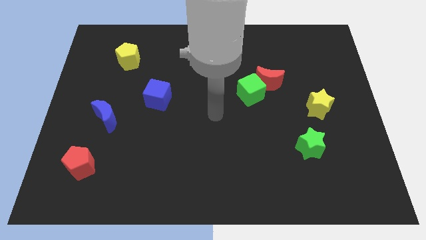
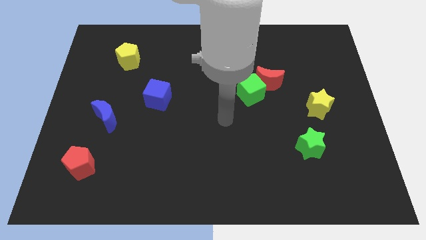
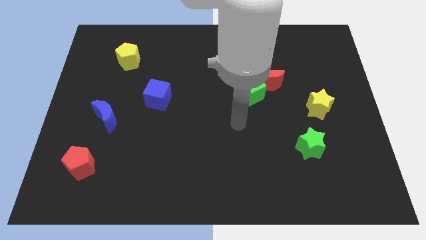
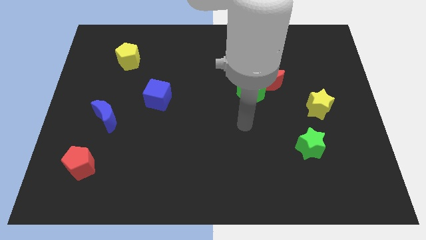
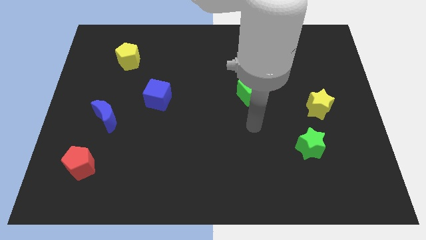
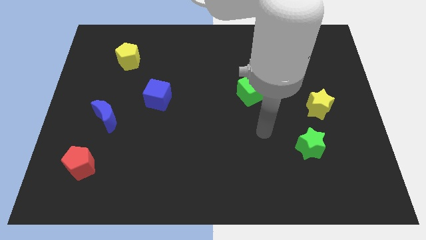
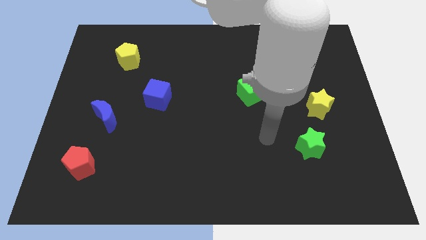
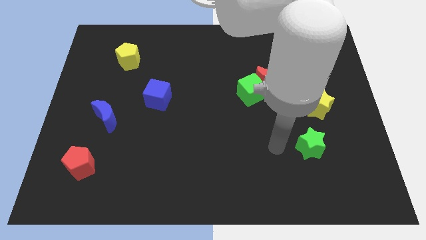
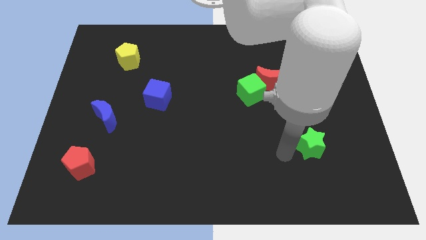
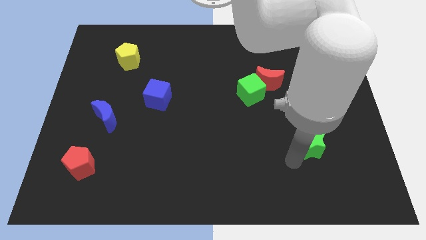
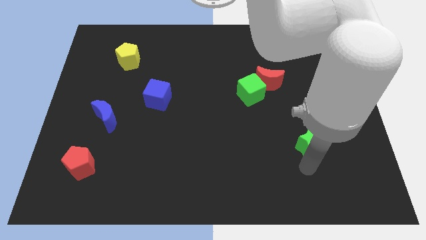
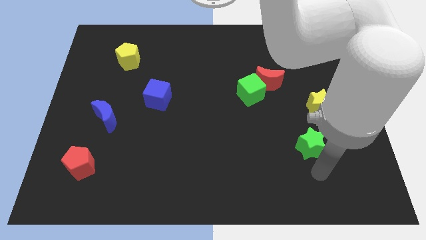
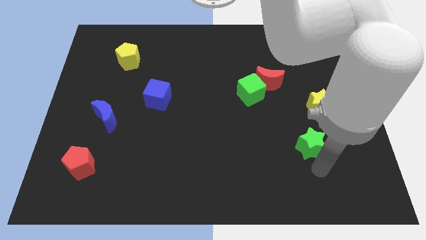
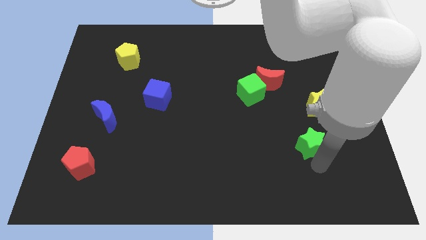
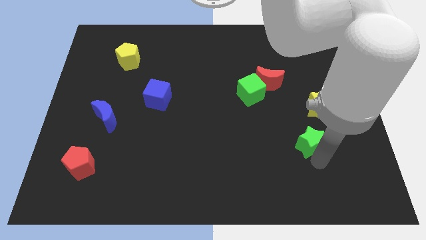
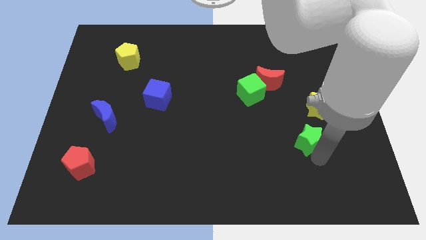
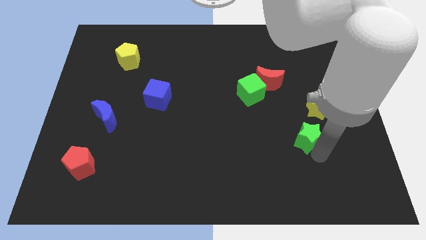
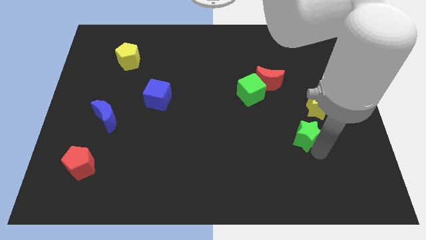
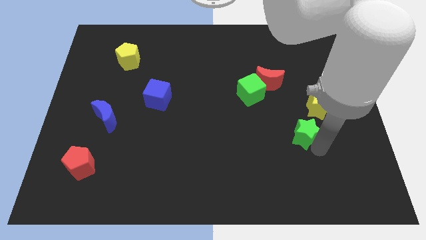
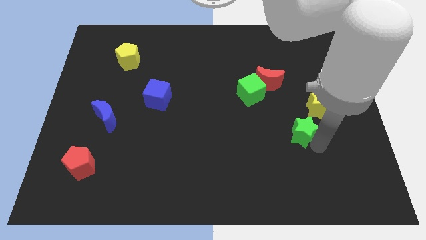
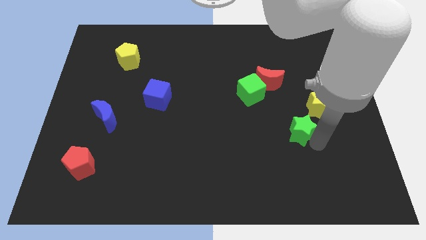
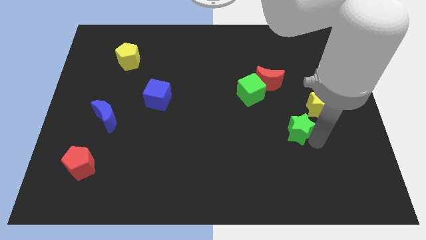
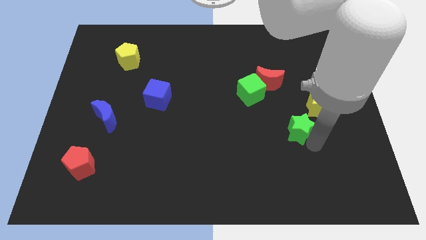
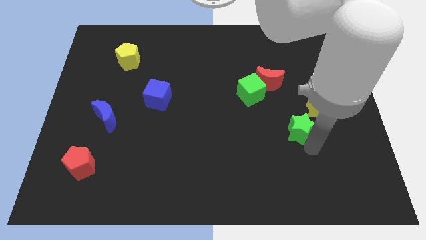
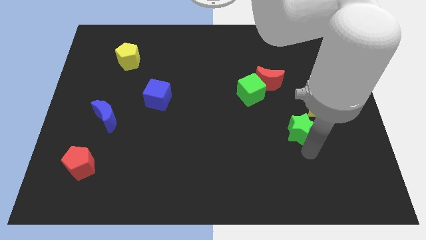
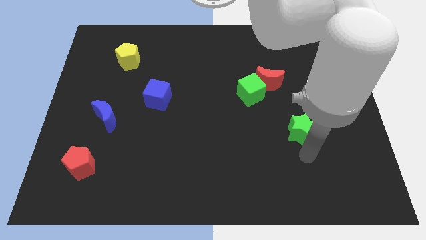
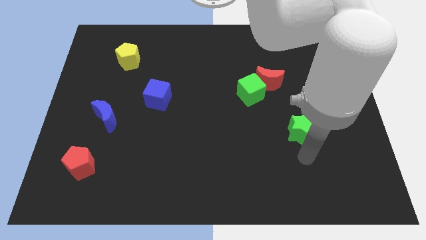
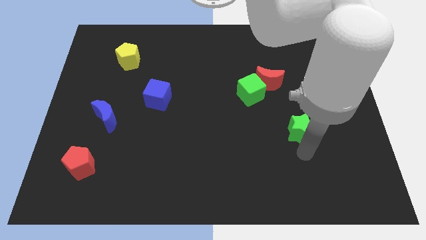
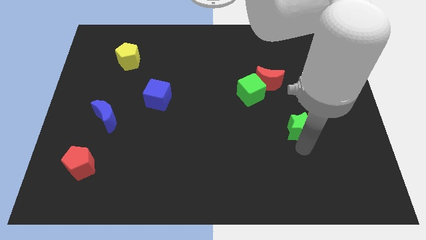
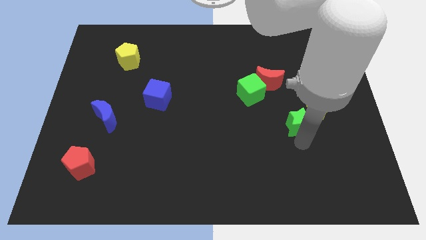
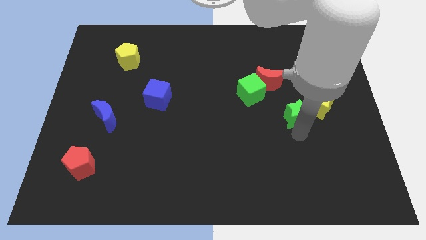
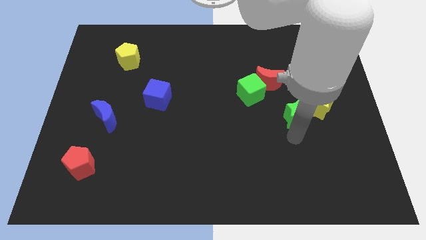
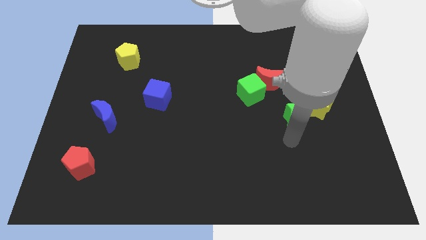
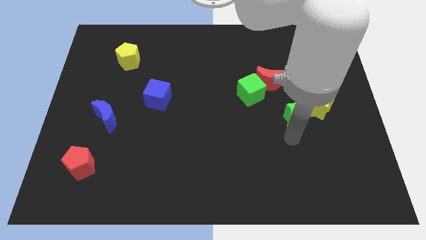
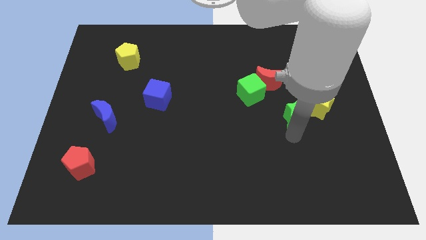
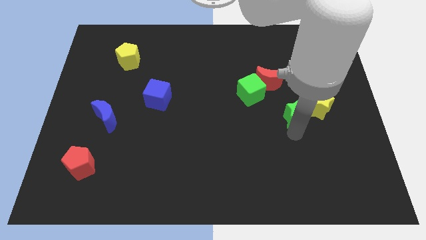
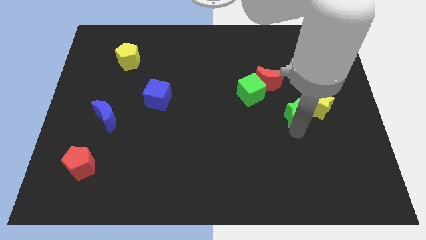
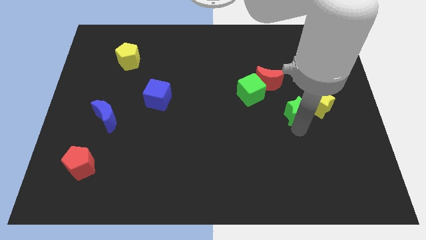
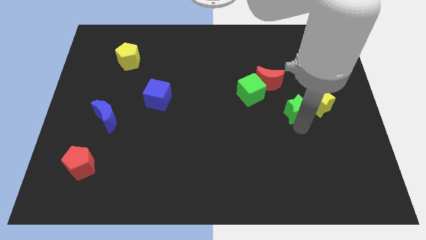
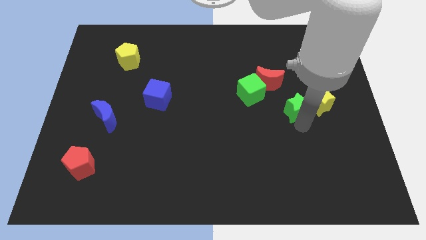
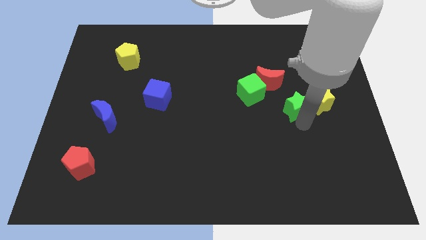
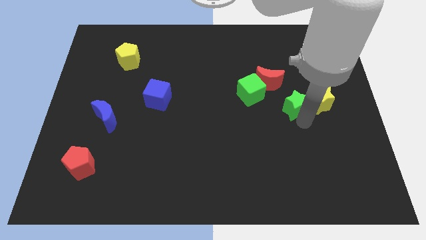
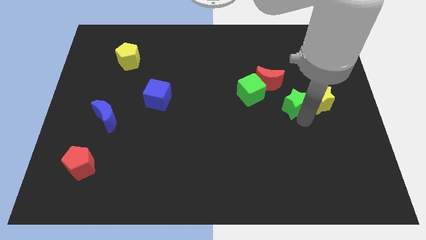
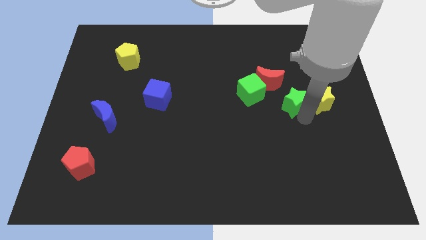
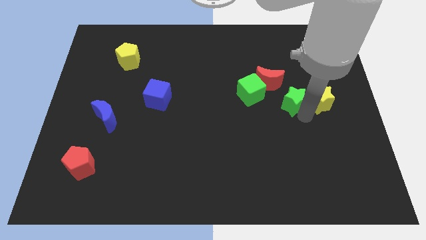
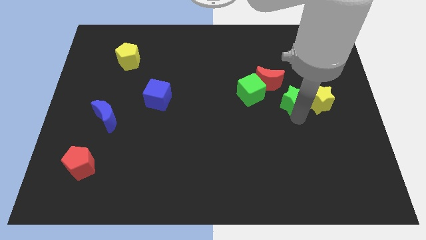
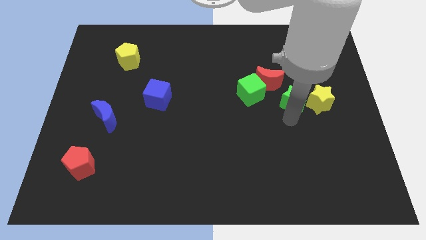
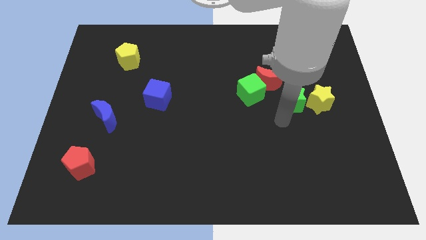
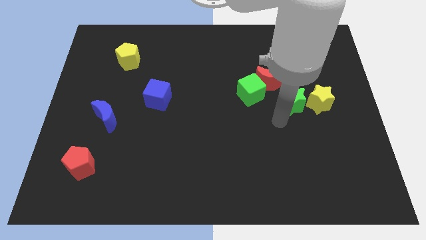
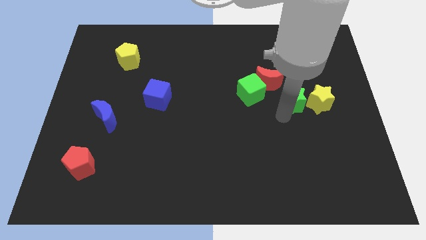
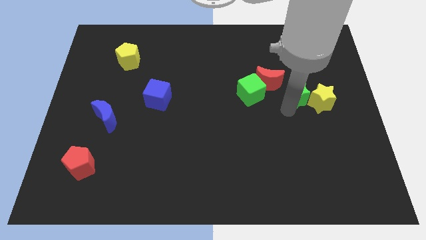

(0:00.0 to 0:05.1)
move the green star to the right side of the red moon
